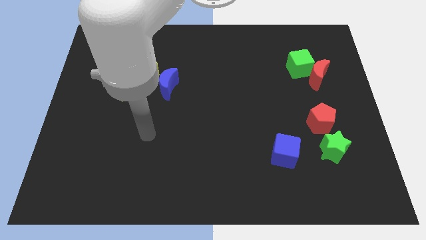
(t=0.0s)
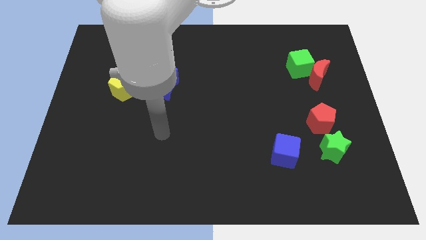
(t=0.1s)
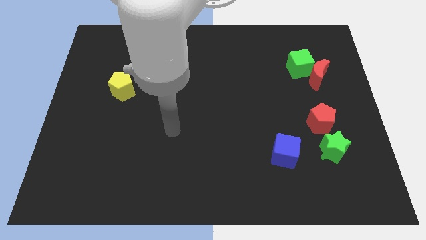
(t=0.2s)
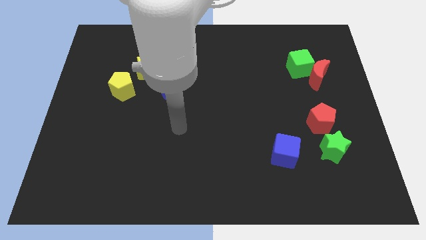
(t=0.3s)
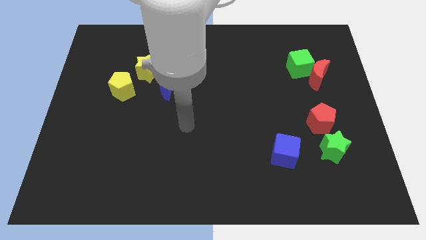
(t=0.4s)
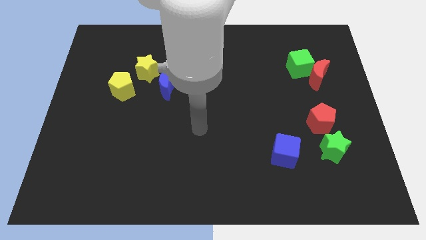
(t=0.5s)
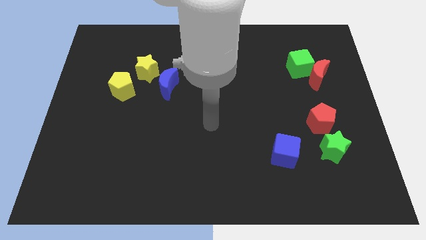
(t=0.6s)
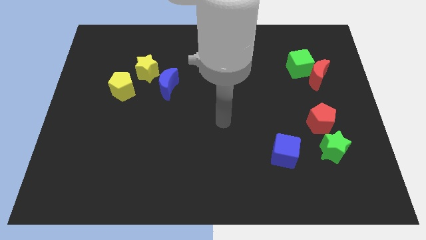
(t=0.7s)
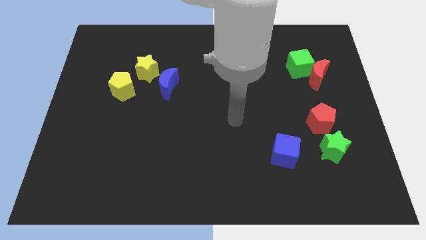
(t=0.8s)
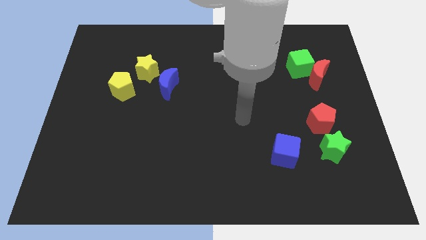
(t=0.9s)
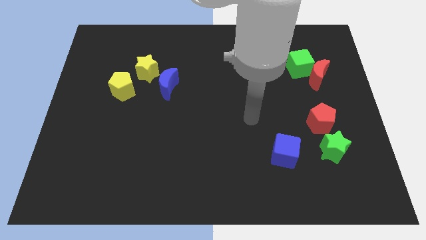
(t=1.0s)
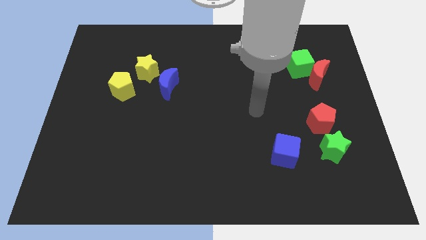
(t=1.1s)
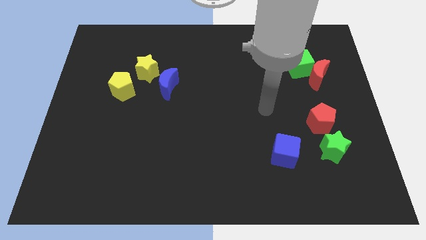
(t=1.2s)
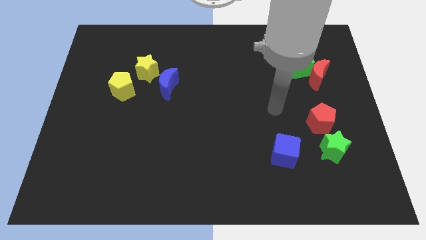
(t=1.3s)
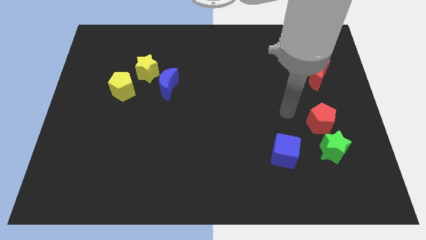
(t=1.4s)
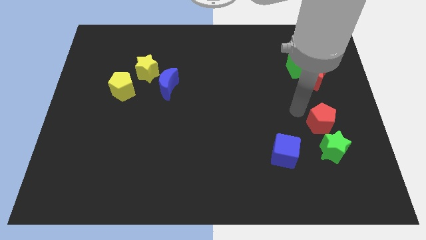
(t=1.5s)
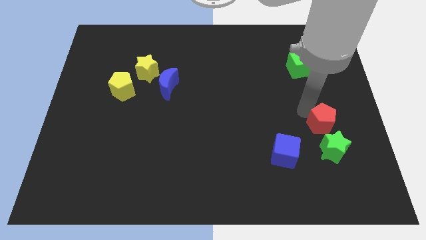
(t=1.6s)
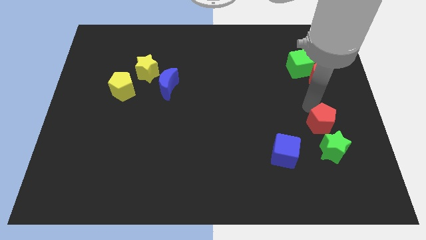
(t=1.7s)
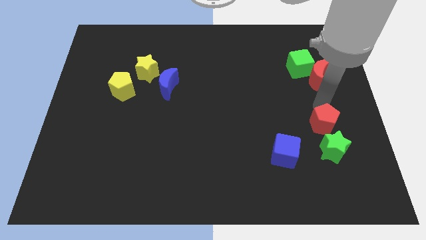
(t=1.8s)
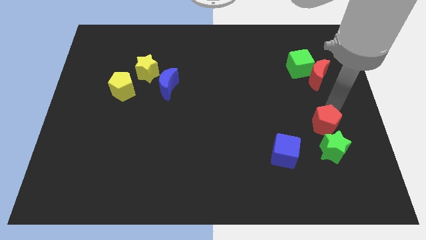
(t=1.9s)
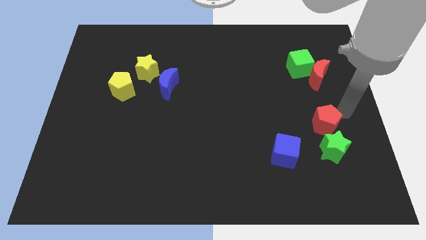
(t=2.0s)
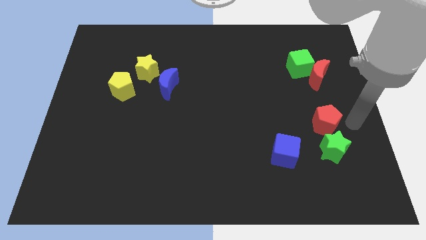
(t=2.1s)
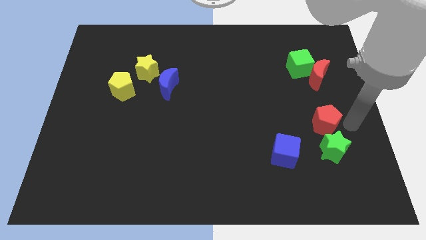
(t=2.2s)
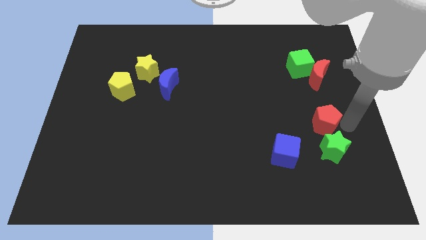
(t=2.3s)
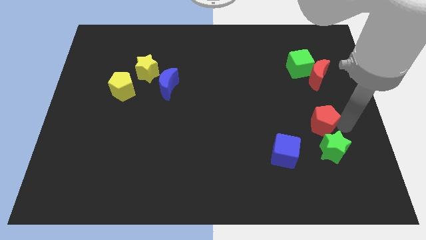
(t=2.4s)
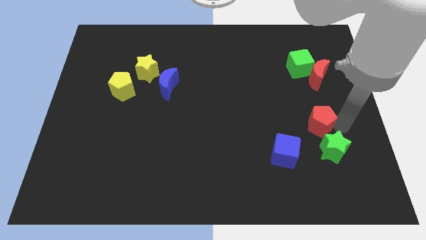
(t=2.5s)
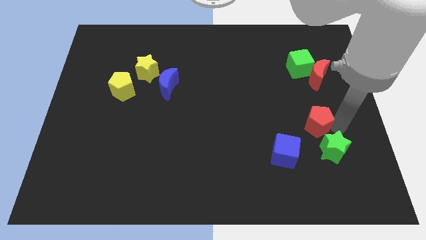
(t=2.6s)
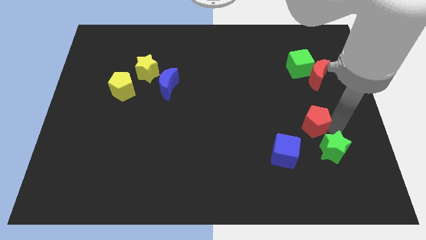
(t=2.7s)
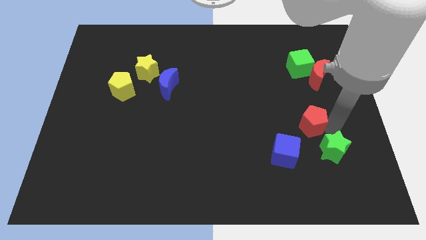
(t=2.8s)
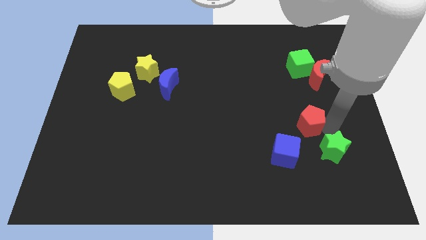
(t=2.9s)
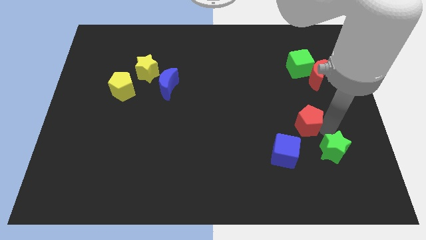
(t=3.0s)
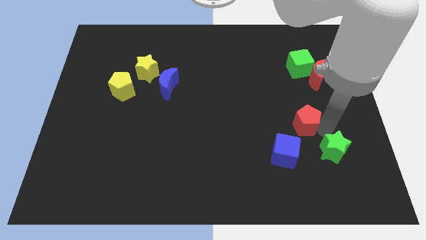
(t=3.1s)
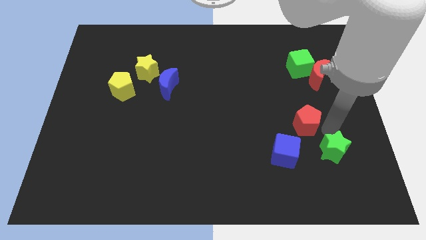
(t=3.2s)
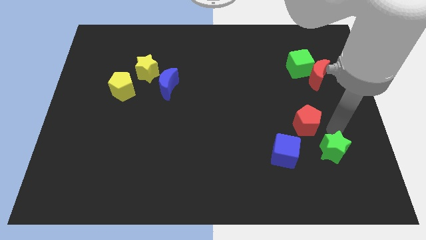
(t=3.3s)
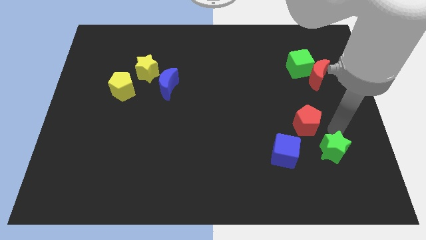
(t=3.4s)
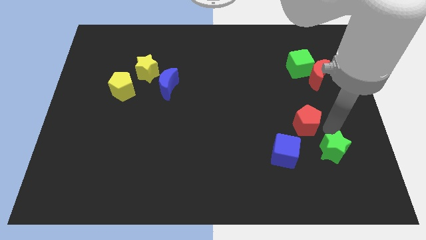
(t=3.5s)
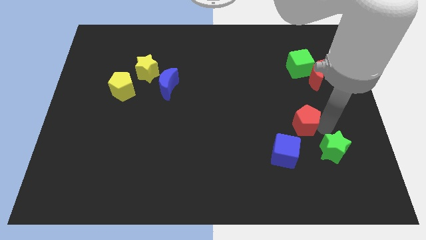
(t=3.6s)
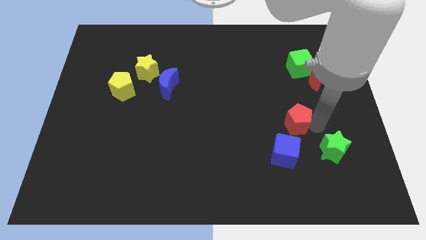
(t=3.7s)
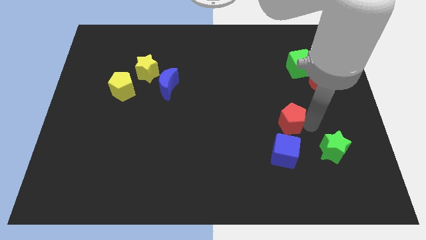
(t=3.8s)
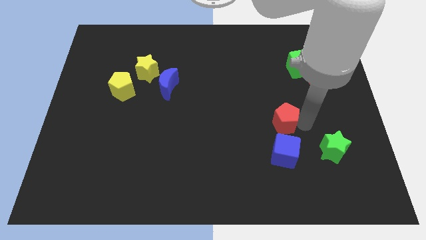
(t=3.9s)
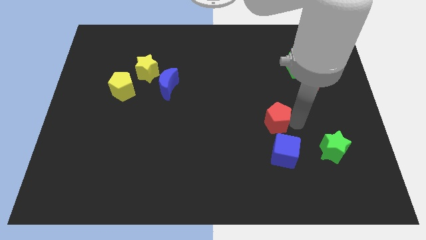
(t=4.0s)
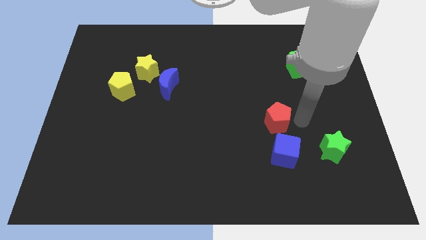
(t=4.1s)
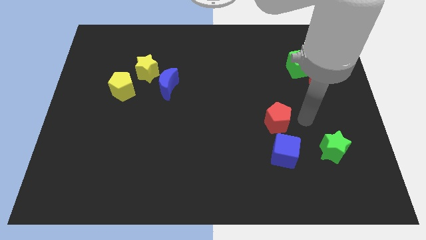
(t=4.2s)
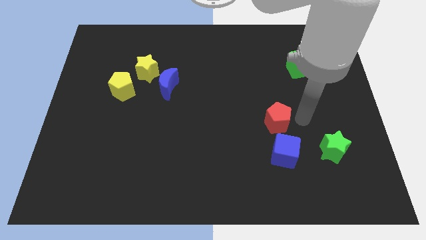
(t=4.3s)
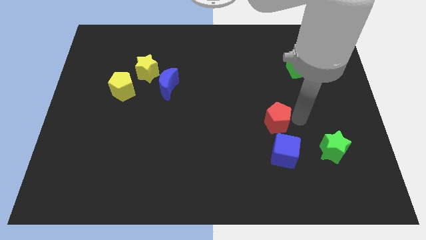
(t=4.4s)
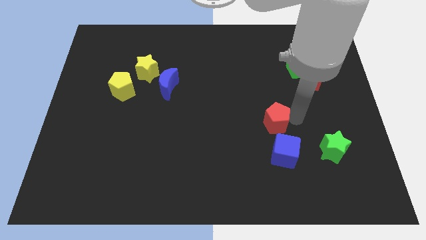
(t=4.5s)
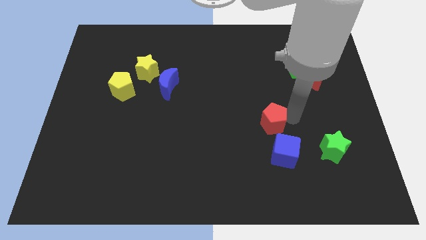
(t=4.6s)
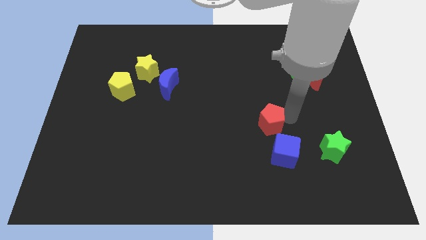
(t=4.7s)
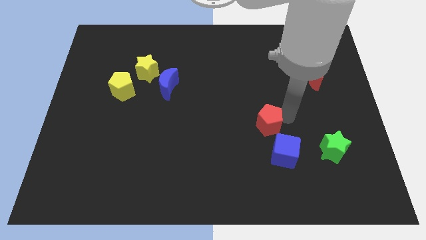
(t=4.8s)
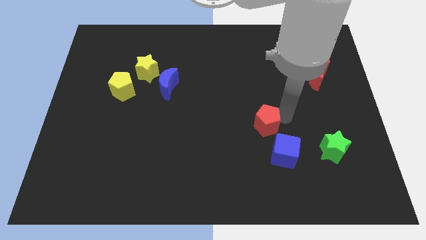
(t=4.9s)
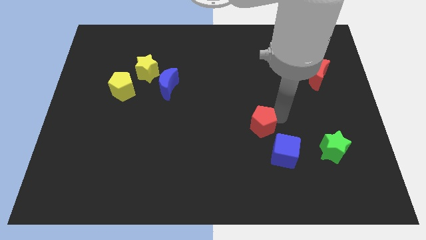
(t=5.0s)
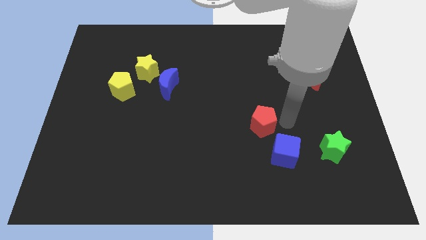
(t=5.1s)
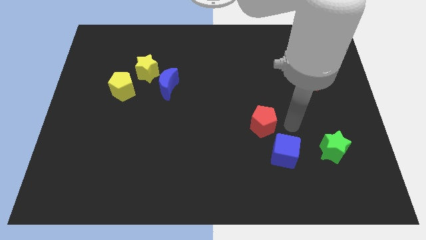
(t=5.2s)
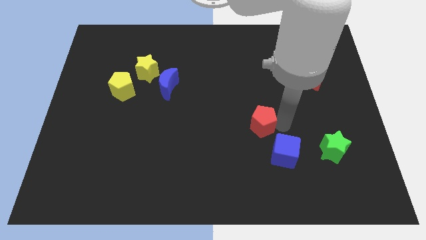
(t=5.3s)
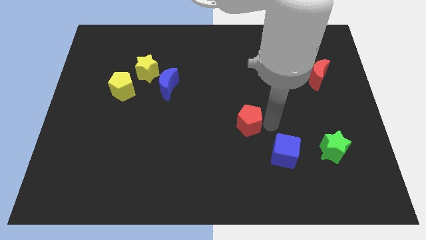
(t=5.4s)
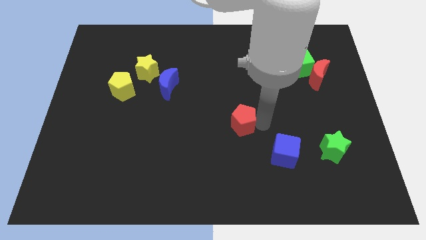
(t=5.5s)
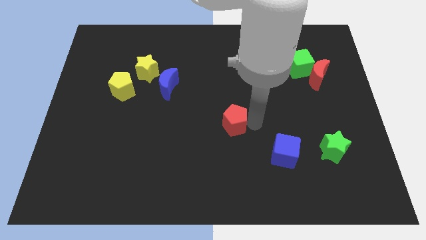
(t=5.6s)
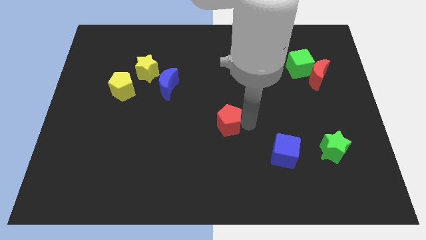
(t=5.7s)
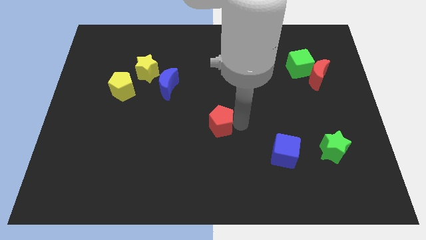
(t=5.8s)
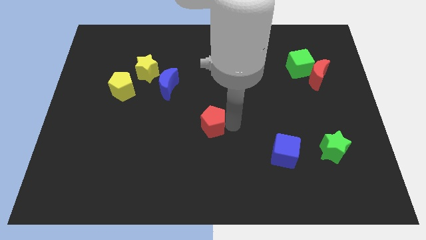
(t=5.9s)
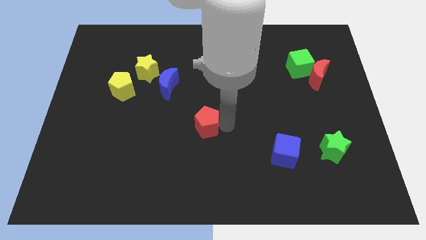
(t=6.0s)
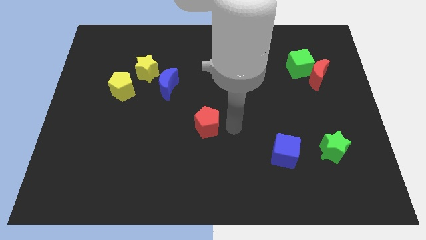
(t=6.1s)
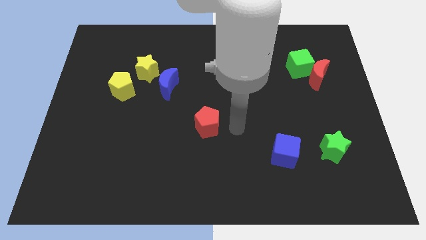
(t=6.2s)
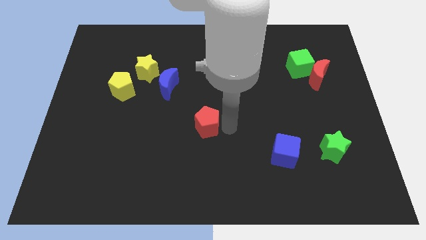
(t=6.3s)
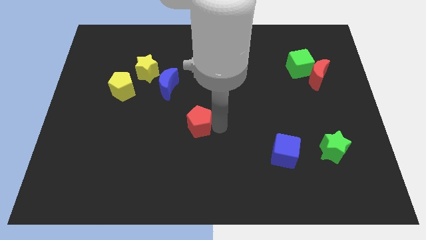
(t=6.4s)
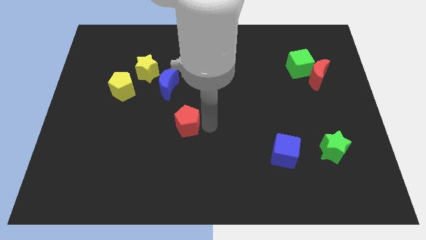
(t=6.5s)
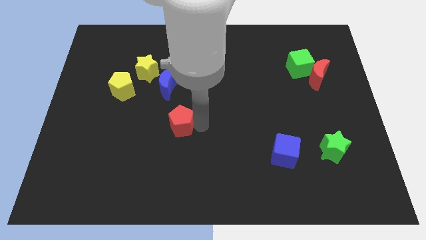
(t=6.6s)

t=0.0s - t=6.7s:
put the red pentagon to the bottom side of the blue moon

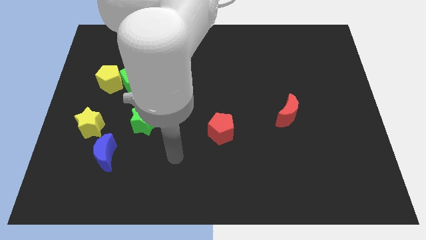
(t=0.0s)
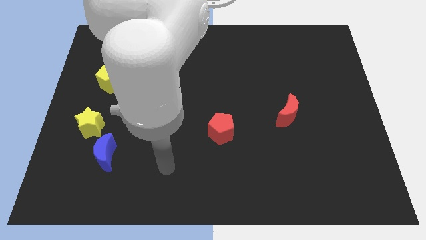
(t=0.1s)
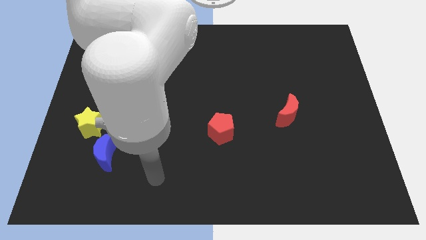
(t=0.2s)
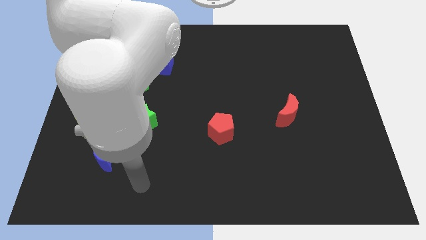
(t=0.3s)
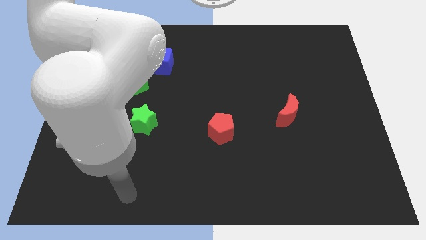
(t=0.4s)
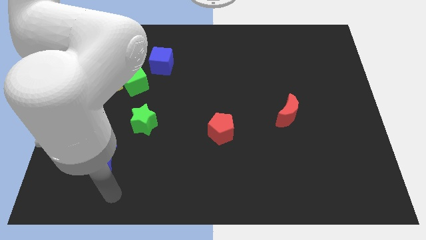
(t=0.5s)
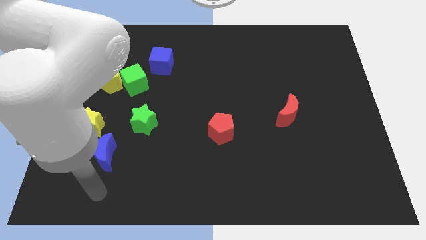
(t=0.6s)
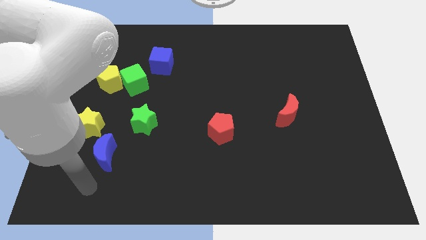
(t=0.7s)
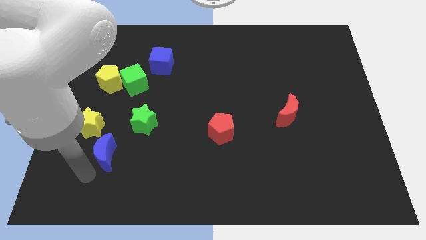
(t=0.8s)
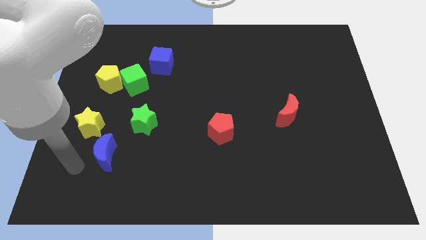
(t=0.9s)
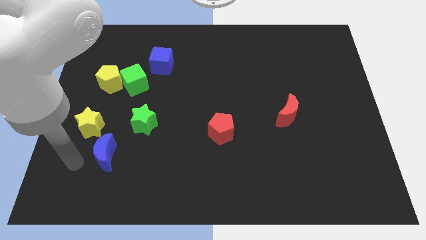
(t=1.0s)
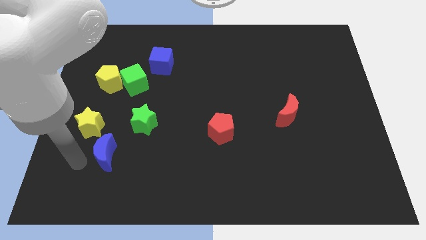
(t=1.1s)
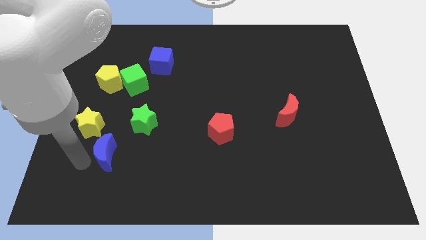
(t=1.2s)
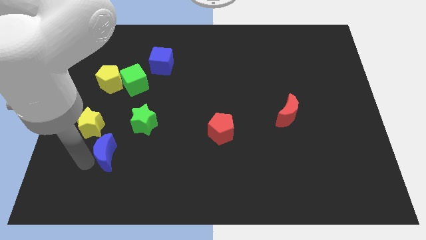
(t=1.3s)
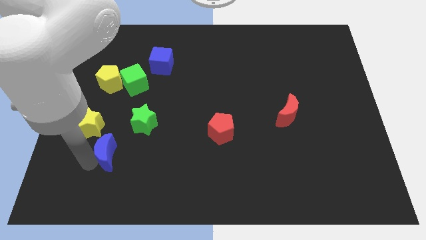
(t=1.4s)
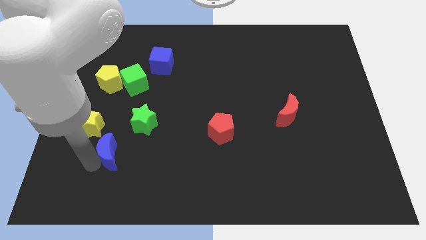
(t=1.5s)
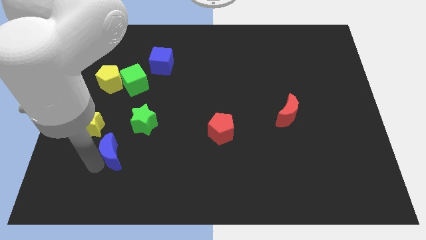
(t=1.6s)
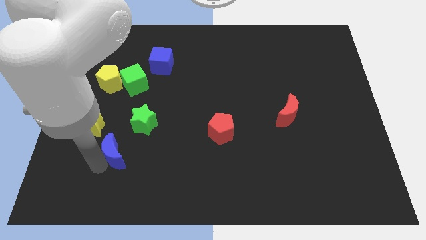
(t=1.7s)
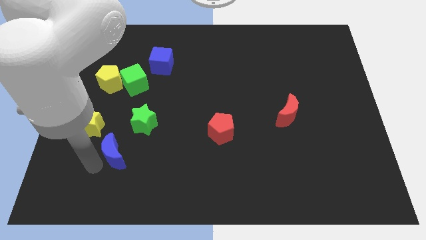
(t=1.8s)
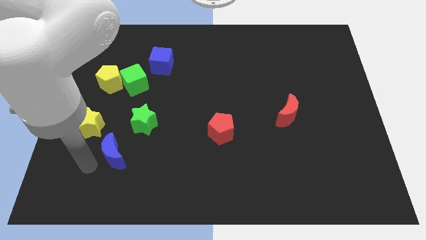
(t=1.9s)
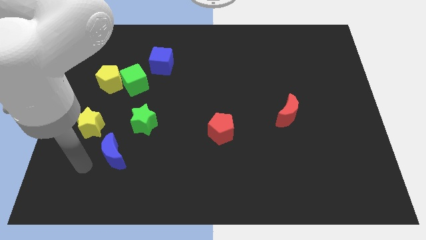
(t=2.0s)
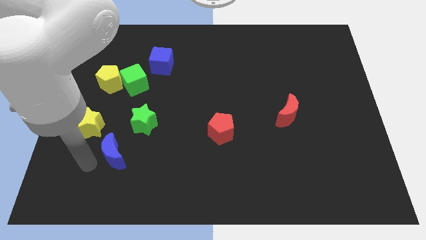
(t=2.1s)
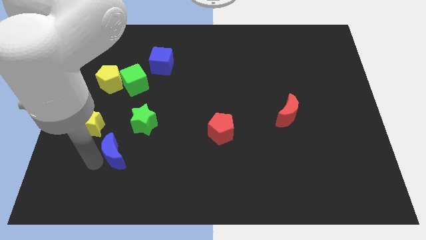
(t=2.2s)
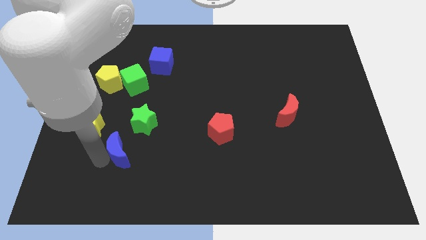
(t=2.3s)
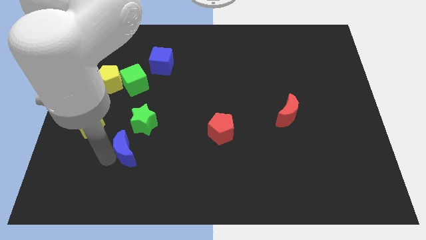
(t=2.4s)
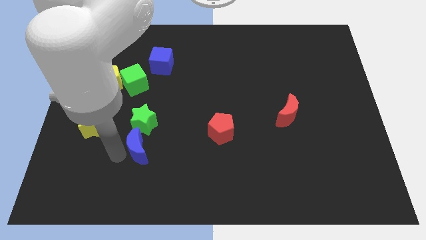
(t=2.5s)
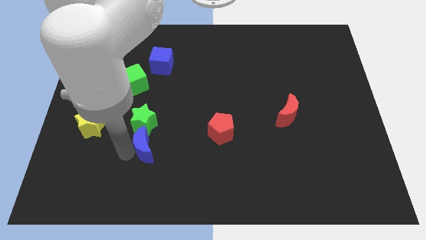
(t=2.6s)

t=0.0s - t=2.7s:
slide the blue moon to the bottom right side of the green star
